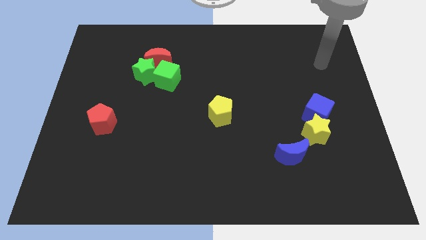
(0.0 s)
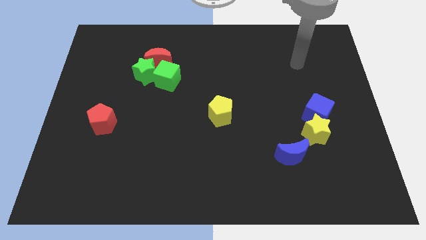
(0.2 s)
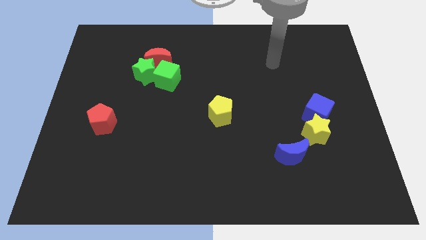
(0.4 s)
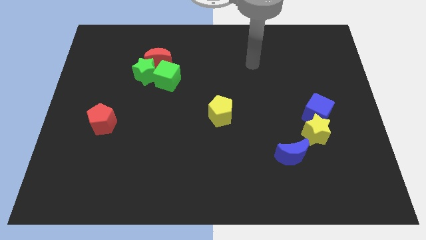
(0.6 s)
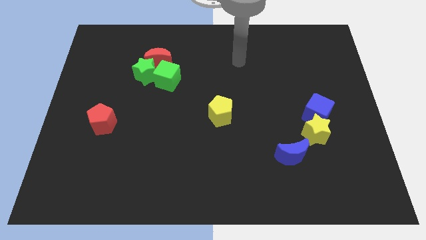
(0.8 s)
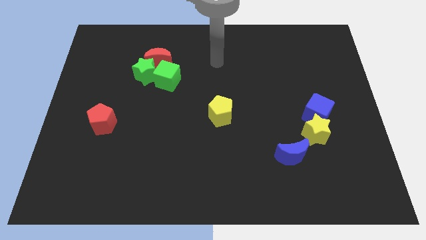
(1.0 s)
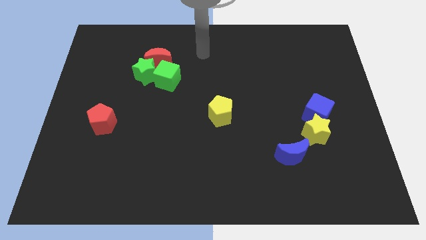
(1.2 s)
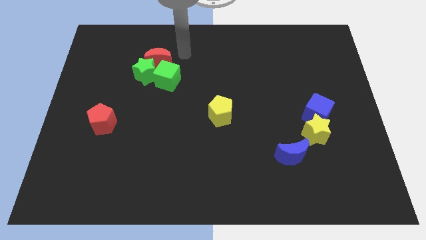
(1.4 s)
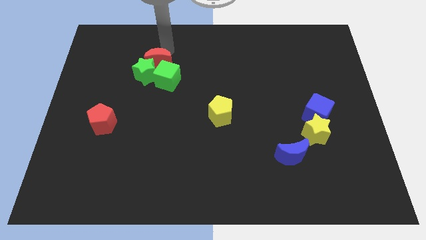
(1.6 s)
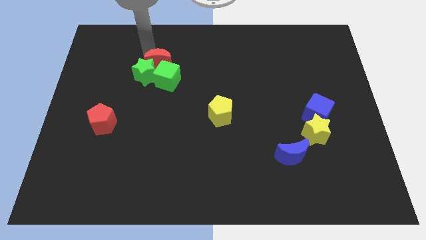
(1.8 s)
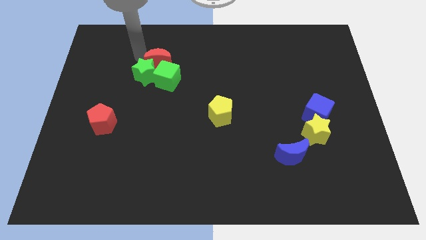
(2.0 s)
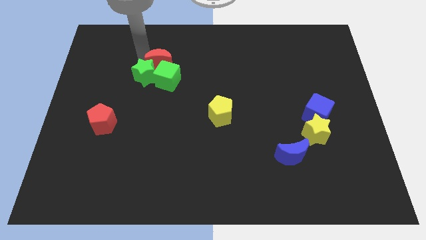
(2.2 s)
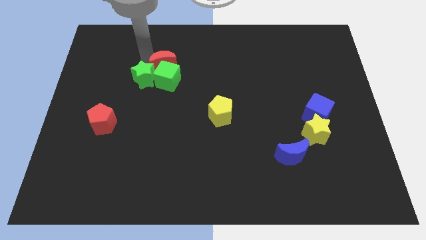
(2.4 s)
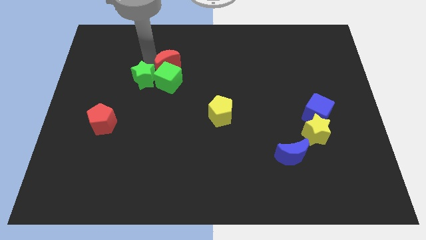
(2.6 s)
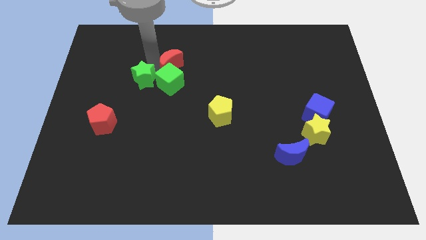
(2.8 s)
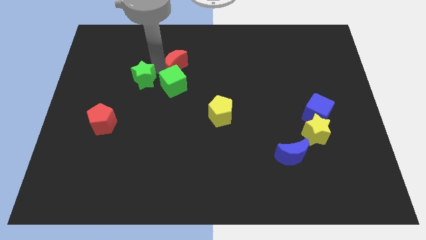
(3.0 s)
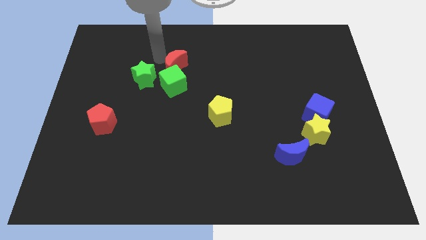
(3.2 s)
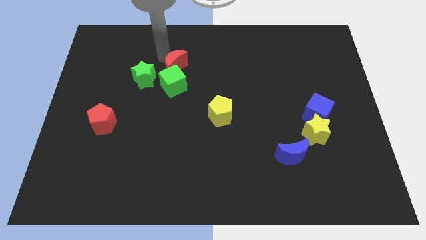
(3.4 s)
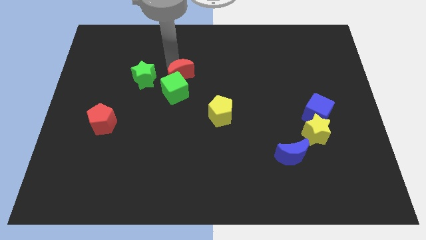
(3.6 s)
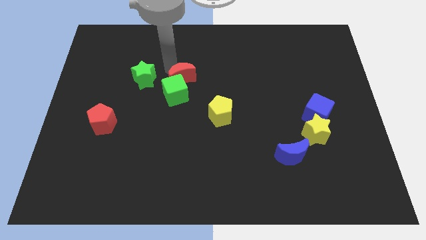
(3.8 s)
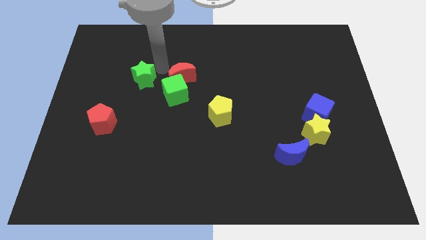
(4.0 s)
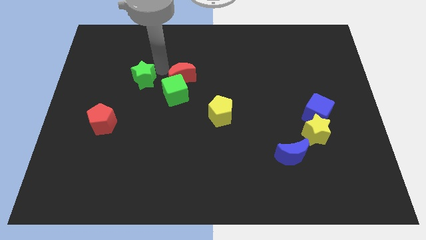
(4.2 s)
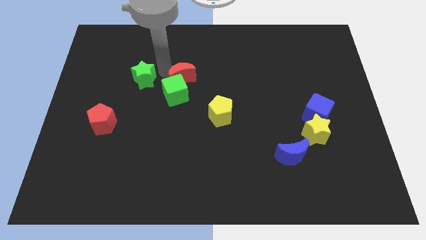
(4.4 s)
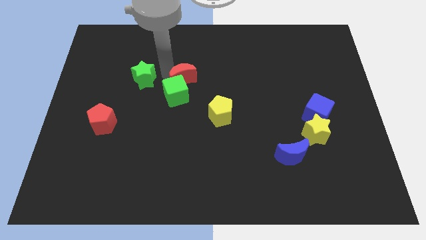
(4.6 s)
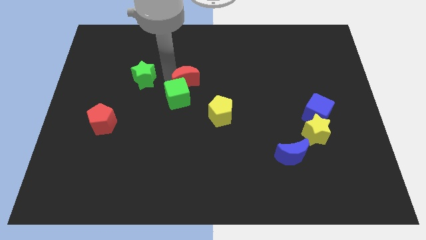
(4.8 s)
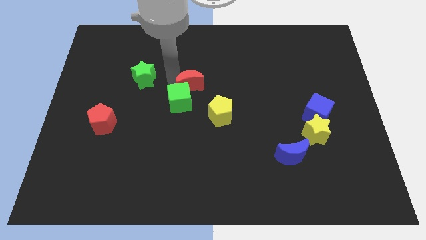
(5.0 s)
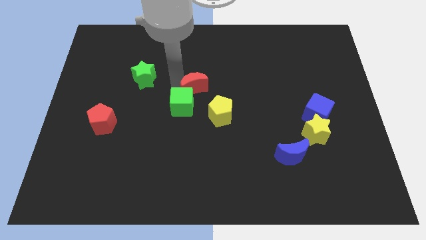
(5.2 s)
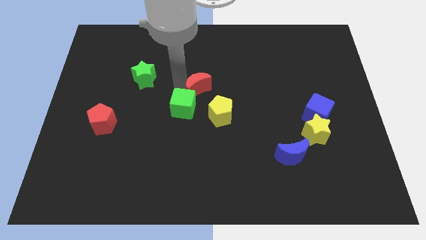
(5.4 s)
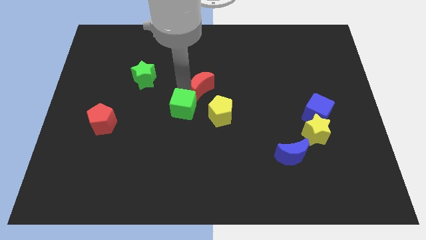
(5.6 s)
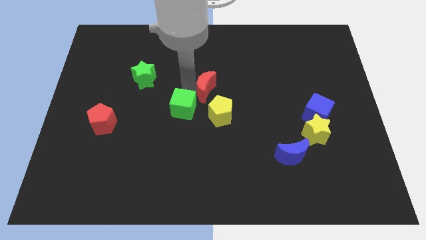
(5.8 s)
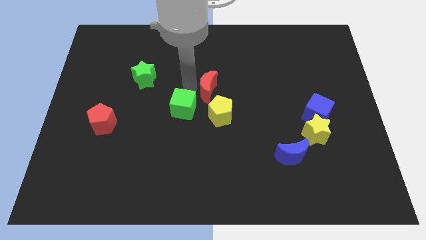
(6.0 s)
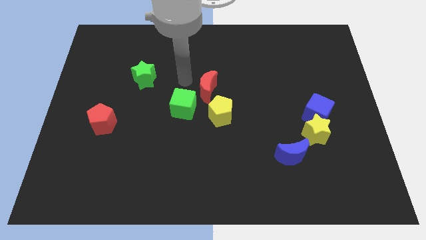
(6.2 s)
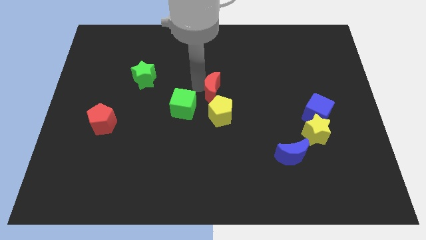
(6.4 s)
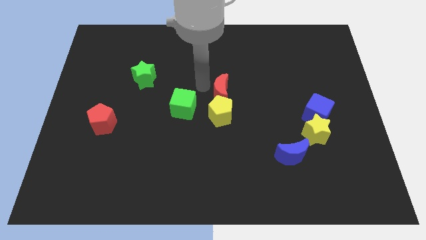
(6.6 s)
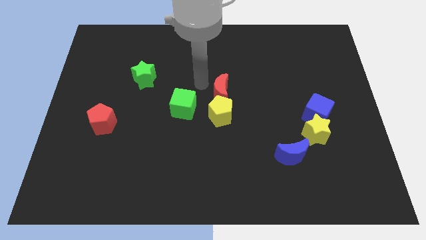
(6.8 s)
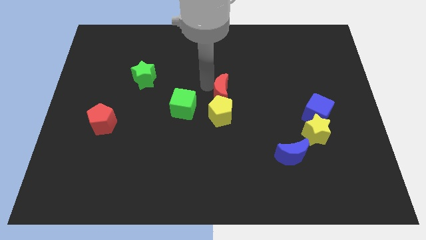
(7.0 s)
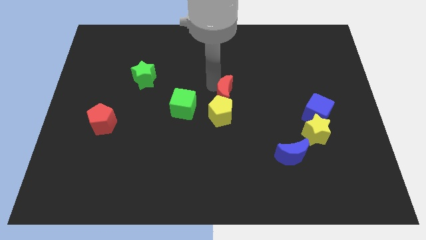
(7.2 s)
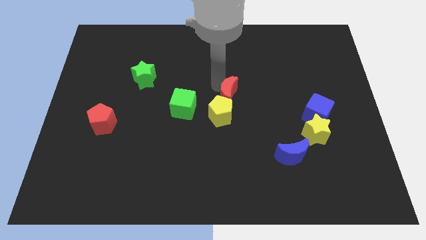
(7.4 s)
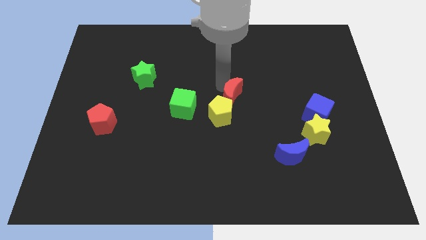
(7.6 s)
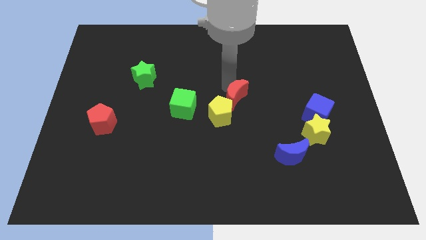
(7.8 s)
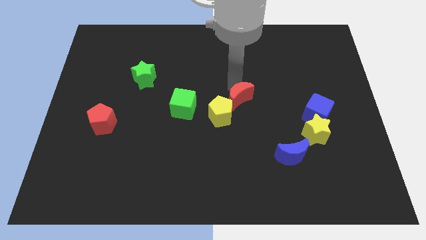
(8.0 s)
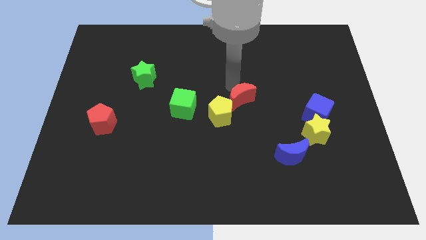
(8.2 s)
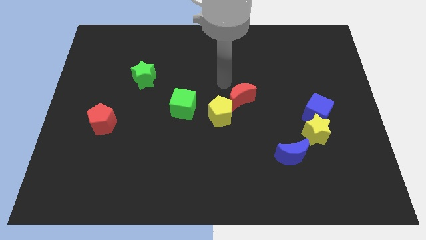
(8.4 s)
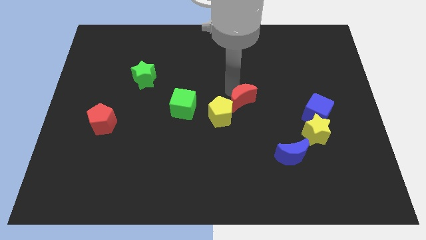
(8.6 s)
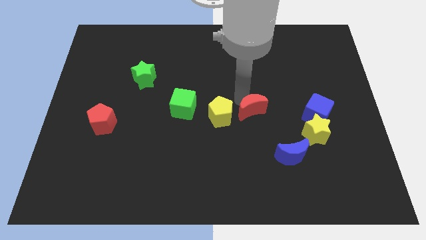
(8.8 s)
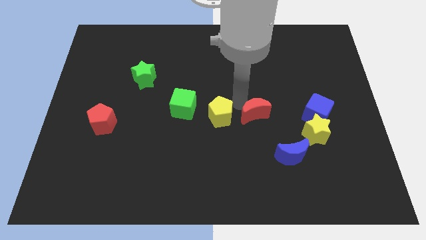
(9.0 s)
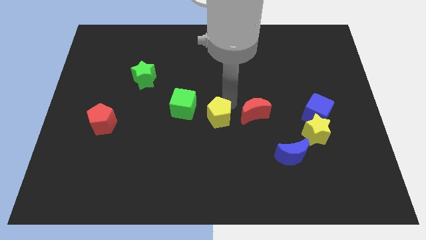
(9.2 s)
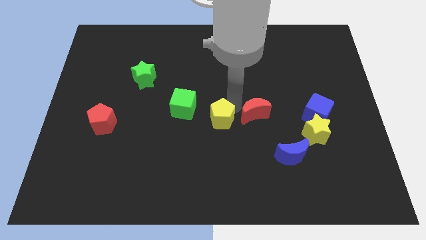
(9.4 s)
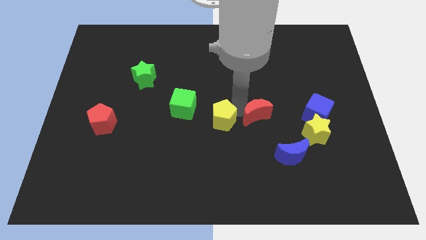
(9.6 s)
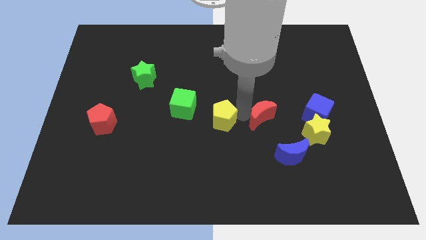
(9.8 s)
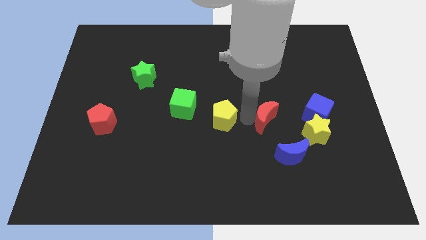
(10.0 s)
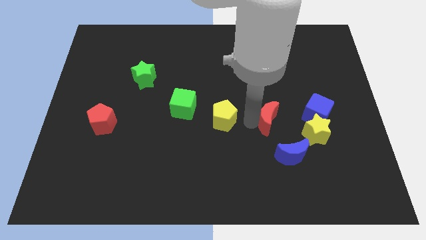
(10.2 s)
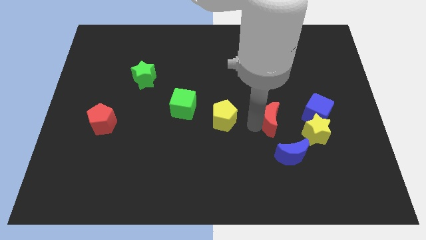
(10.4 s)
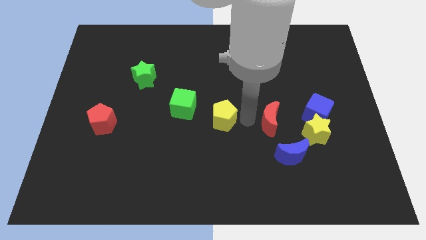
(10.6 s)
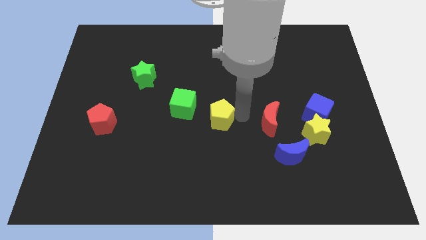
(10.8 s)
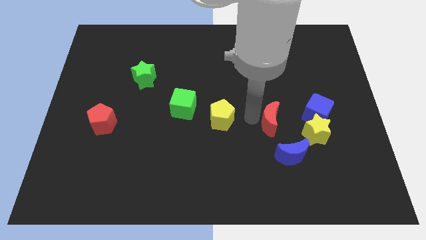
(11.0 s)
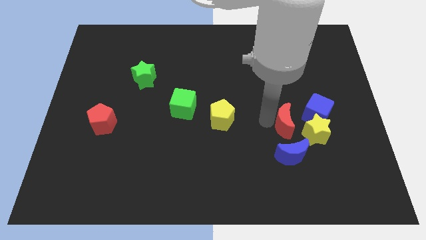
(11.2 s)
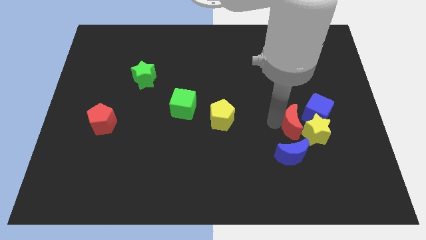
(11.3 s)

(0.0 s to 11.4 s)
push the red moon to the yellow star

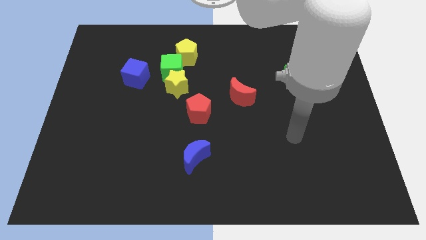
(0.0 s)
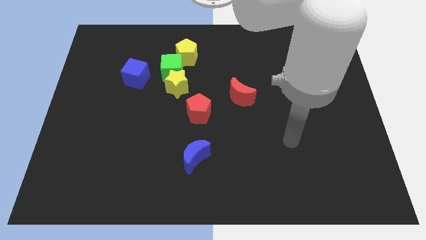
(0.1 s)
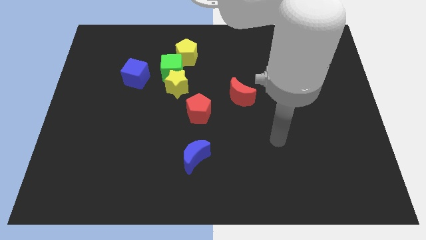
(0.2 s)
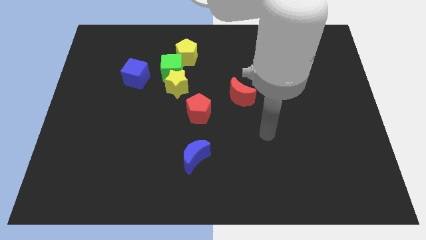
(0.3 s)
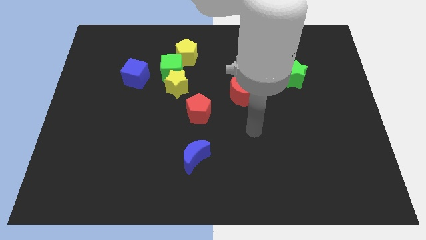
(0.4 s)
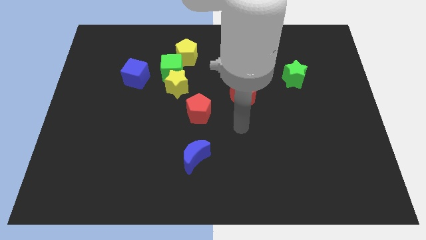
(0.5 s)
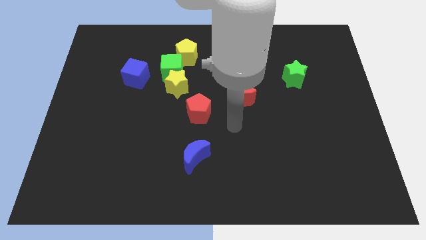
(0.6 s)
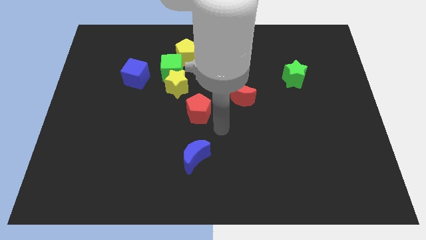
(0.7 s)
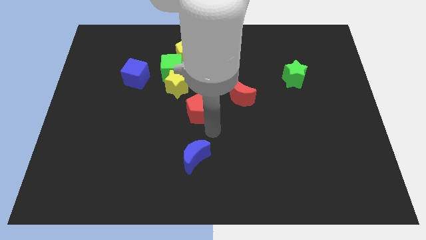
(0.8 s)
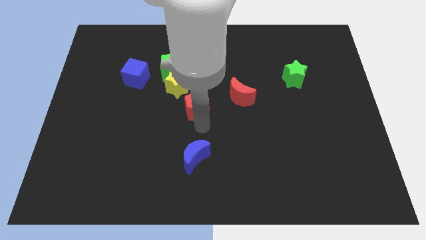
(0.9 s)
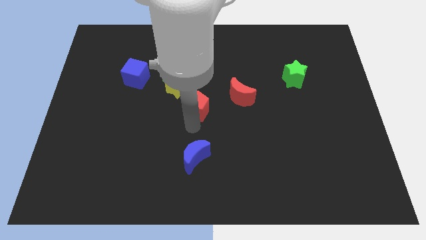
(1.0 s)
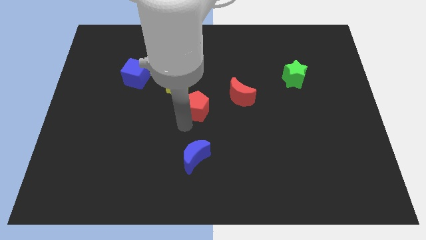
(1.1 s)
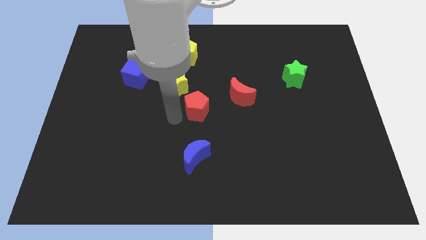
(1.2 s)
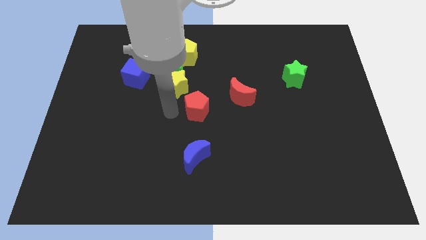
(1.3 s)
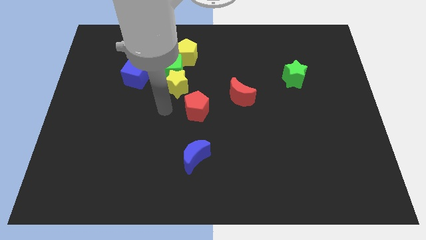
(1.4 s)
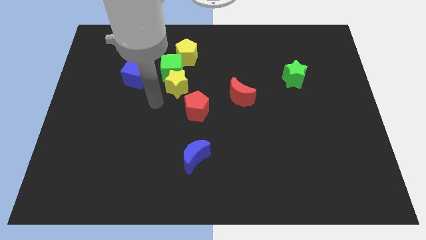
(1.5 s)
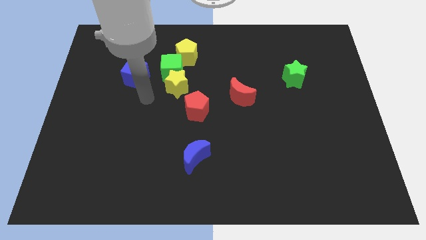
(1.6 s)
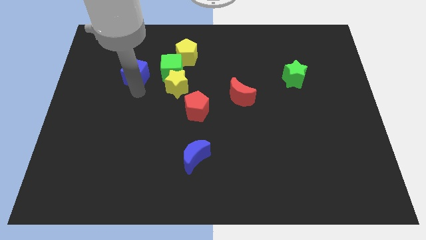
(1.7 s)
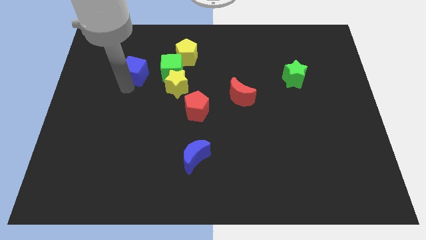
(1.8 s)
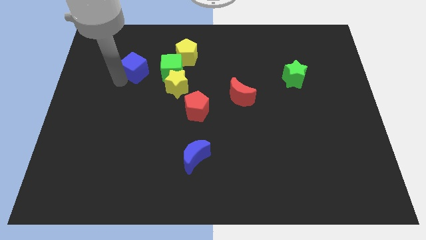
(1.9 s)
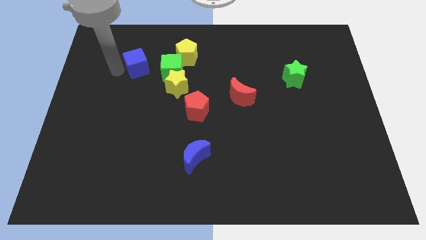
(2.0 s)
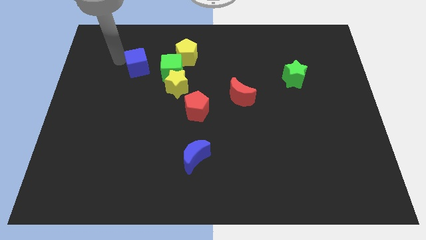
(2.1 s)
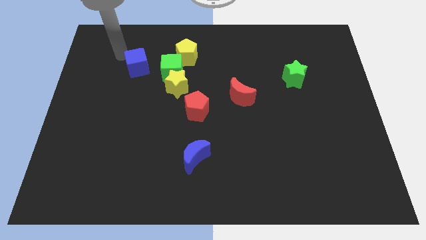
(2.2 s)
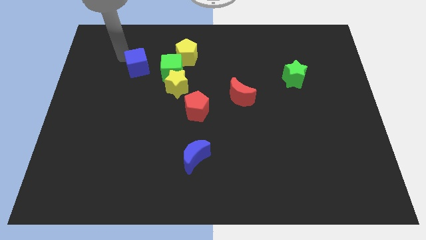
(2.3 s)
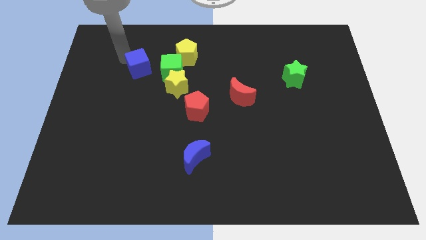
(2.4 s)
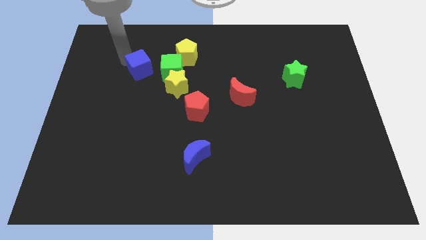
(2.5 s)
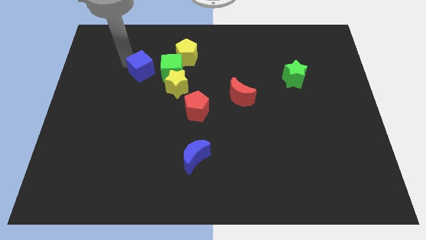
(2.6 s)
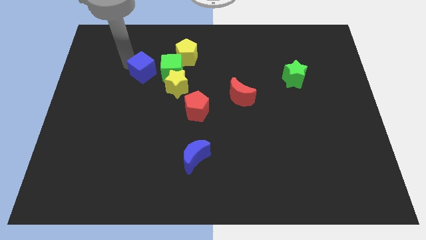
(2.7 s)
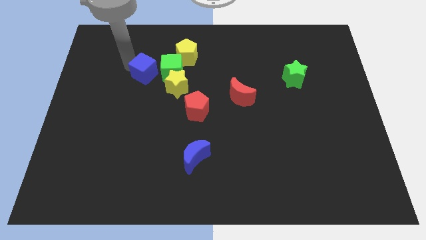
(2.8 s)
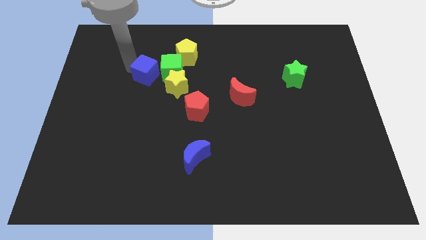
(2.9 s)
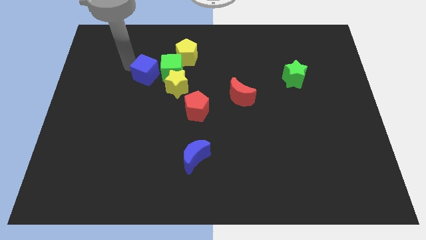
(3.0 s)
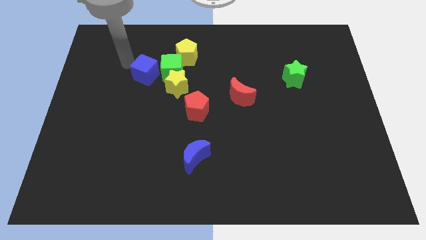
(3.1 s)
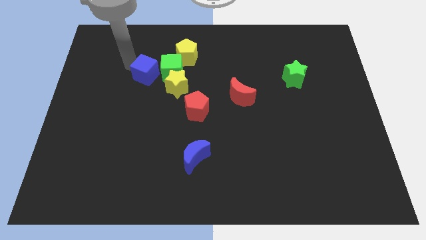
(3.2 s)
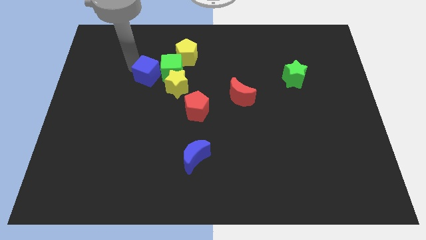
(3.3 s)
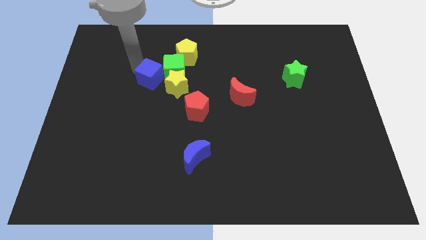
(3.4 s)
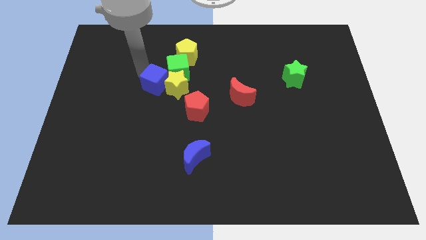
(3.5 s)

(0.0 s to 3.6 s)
push the blue cube next to the yellow star
